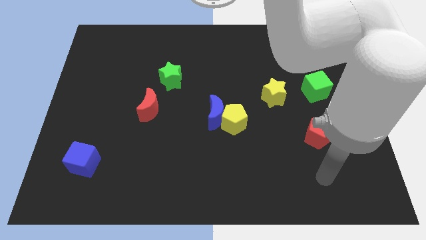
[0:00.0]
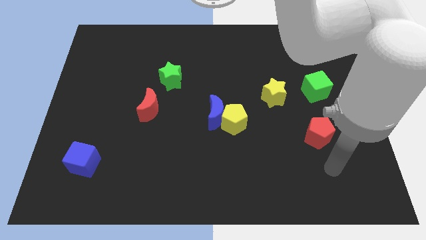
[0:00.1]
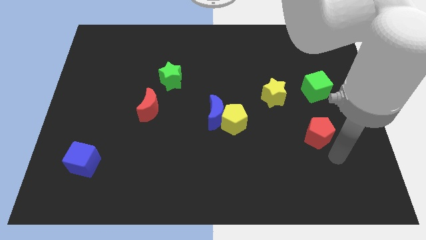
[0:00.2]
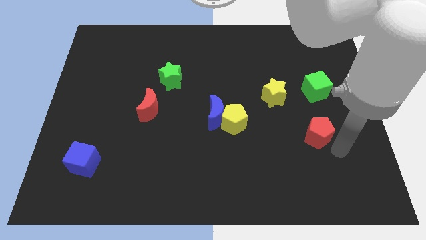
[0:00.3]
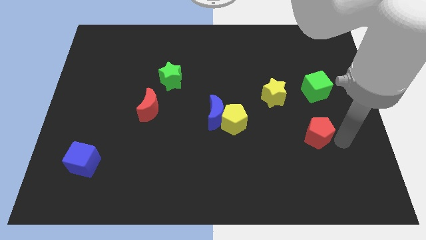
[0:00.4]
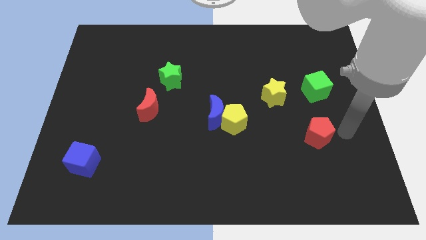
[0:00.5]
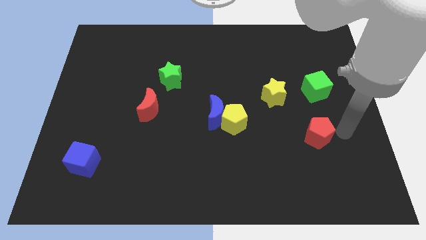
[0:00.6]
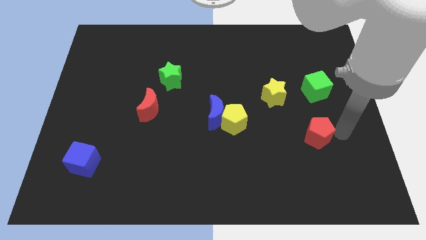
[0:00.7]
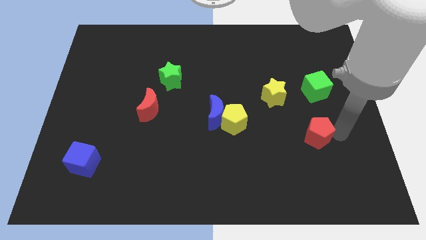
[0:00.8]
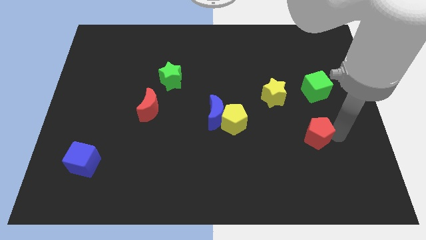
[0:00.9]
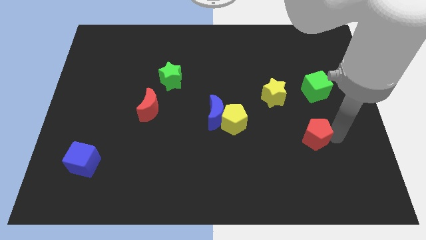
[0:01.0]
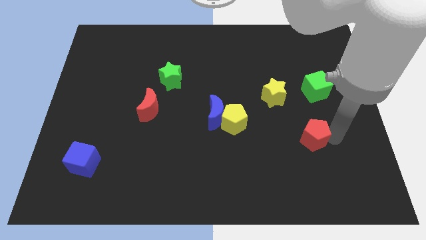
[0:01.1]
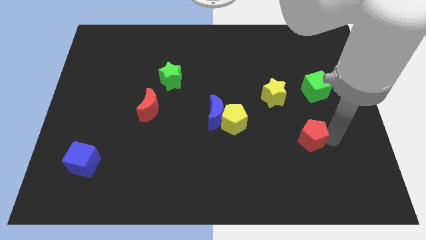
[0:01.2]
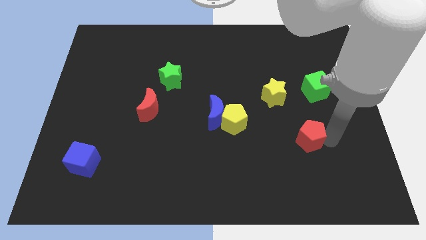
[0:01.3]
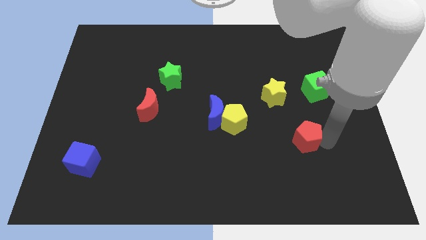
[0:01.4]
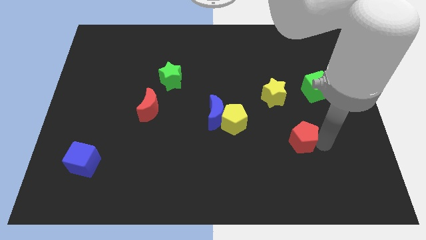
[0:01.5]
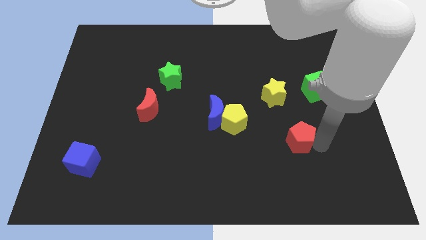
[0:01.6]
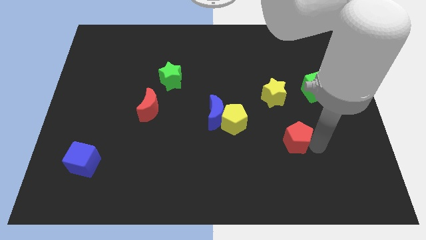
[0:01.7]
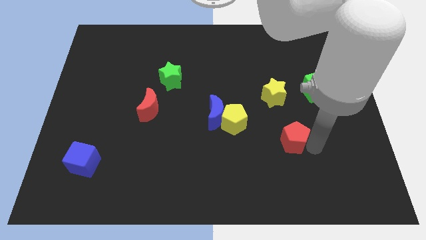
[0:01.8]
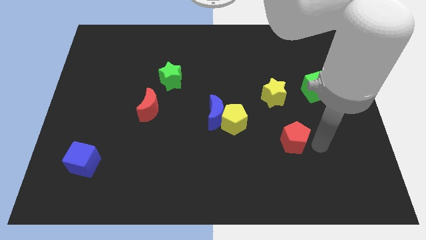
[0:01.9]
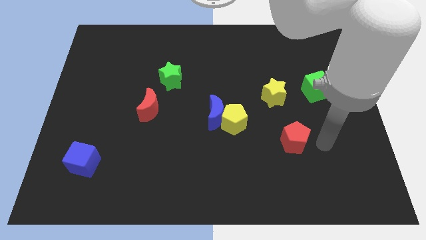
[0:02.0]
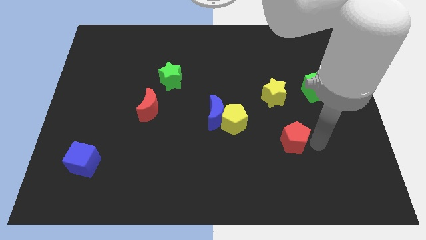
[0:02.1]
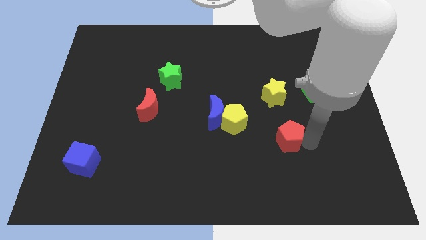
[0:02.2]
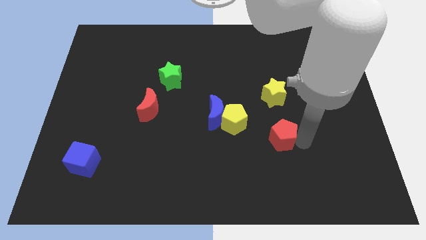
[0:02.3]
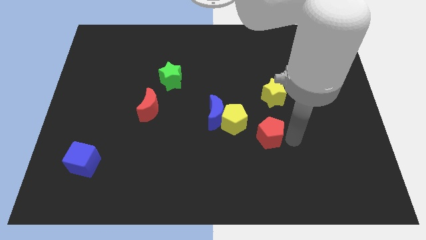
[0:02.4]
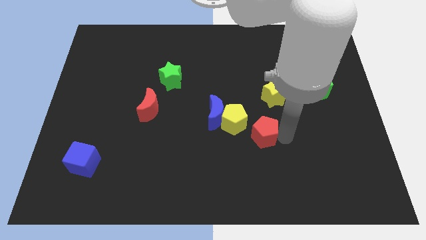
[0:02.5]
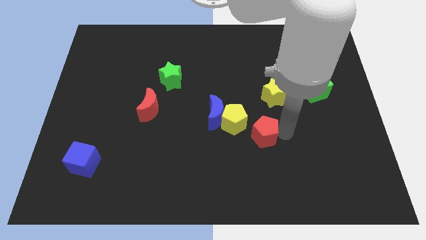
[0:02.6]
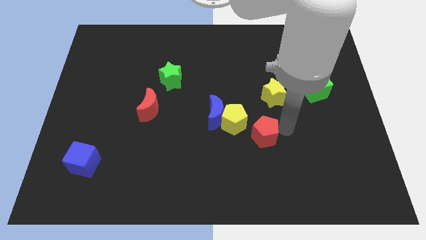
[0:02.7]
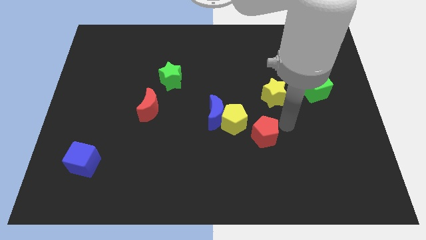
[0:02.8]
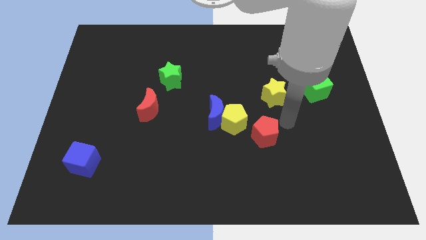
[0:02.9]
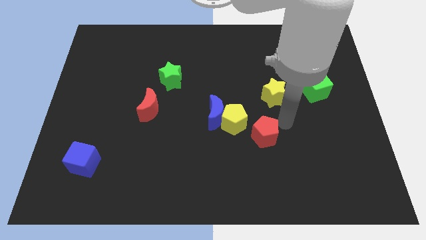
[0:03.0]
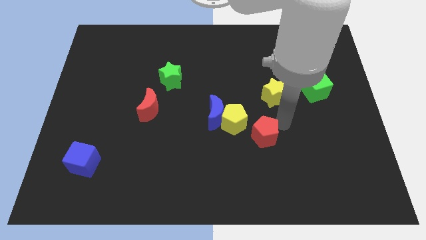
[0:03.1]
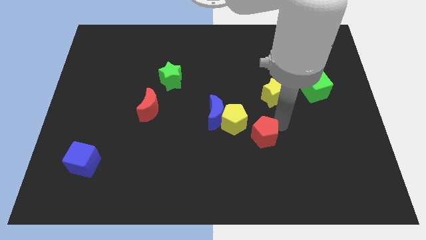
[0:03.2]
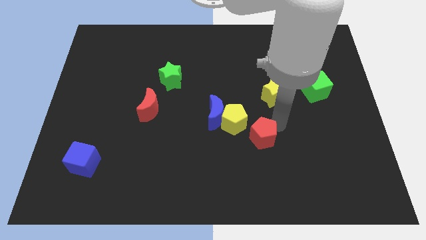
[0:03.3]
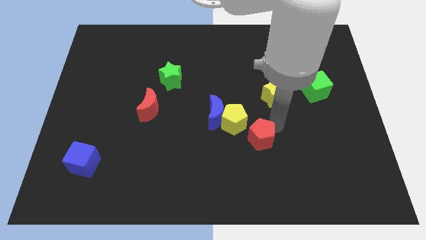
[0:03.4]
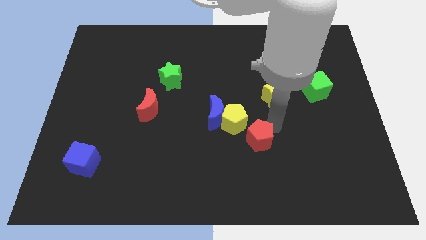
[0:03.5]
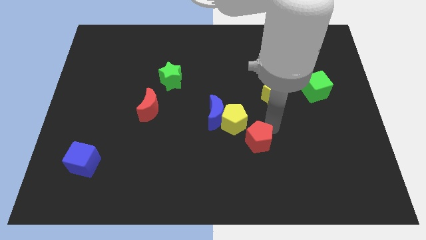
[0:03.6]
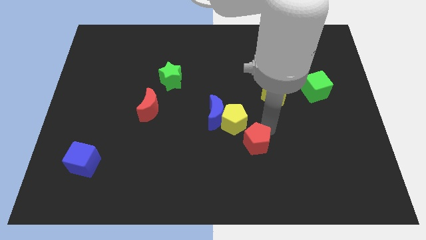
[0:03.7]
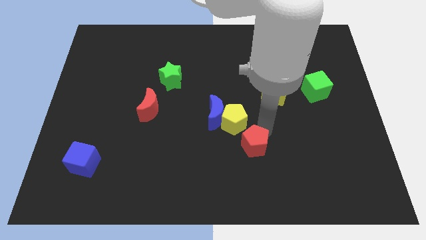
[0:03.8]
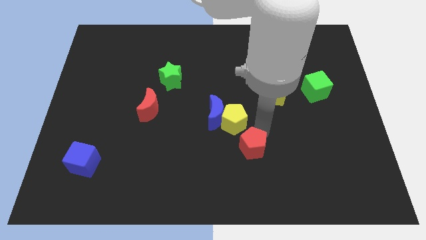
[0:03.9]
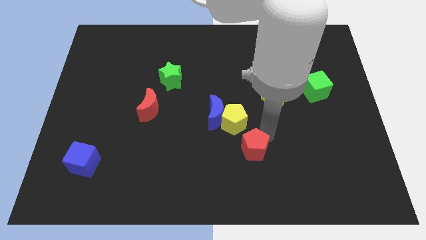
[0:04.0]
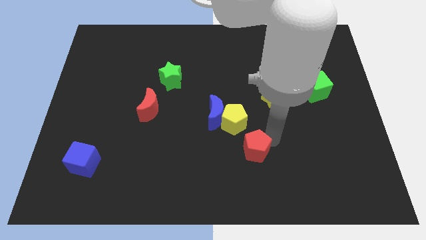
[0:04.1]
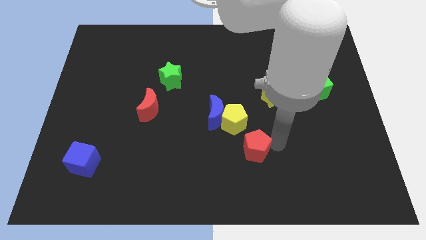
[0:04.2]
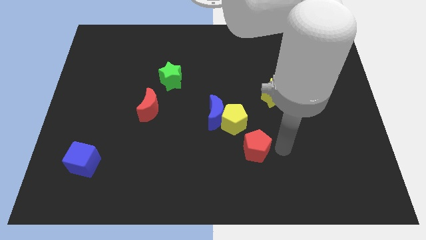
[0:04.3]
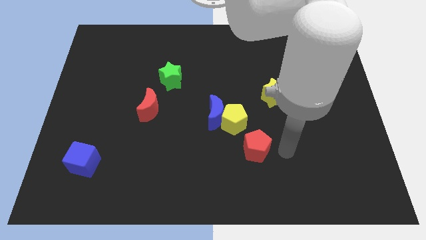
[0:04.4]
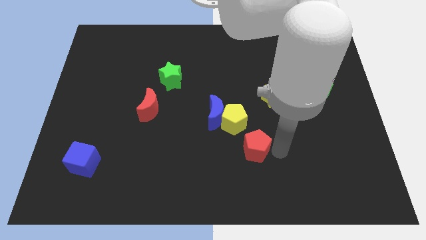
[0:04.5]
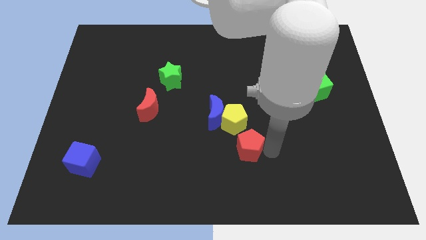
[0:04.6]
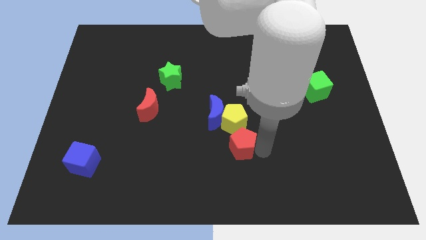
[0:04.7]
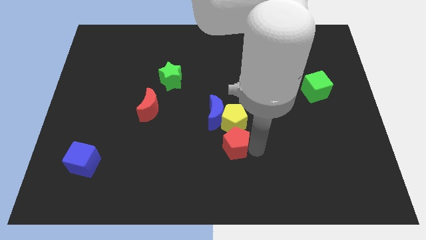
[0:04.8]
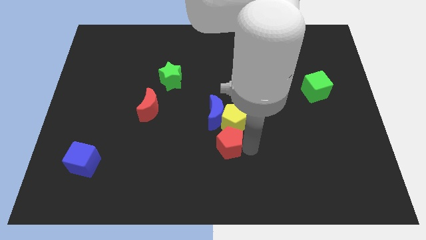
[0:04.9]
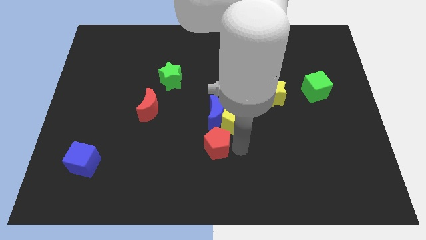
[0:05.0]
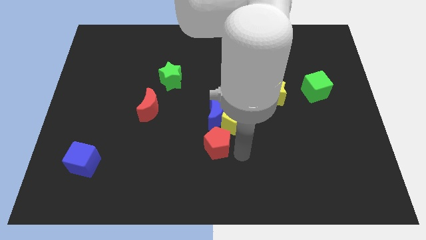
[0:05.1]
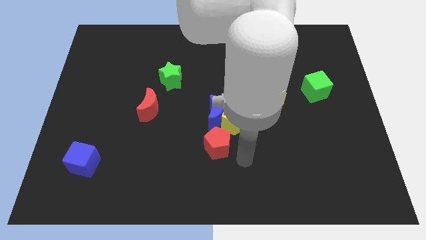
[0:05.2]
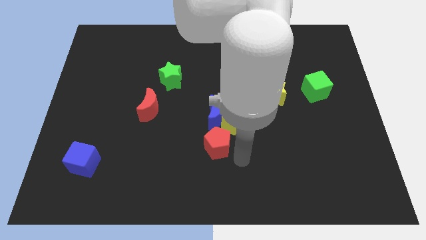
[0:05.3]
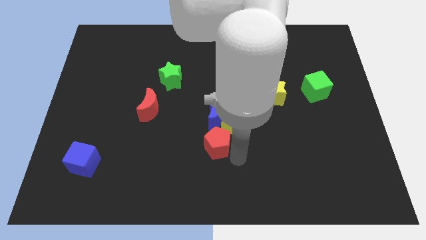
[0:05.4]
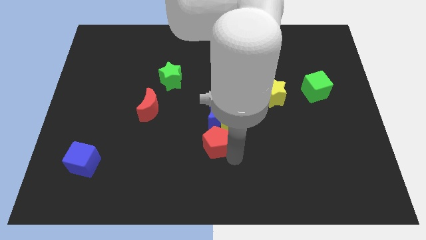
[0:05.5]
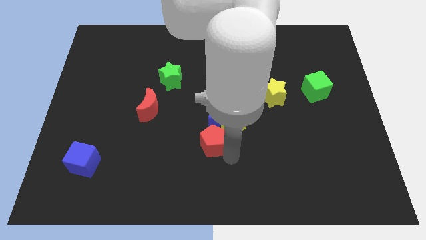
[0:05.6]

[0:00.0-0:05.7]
put the red pentagon diagonally down and to the left of the blue moon

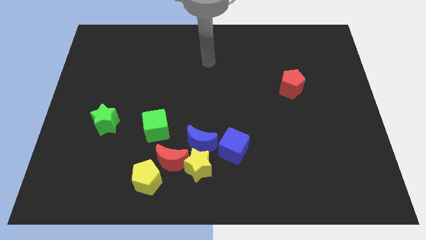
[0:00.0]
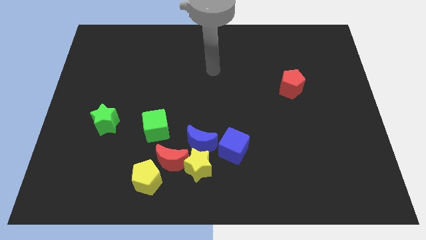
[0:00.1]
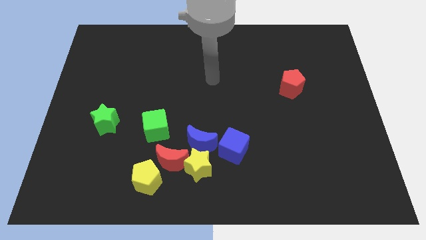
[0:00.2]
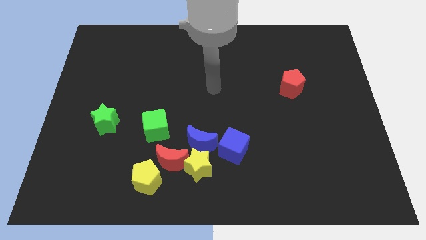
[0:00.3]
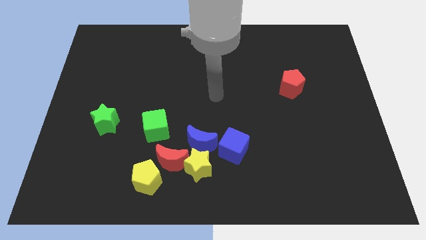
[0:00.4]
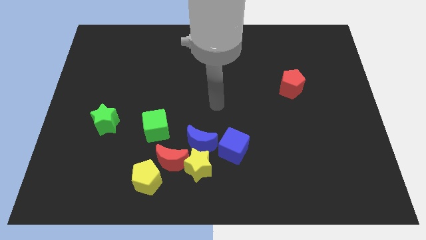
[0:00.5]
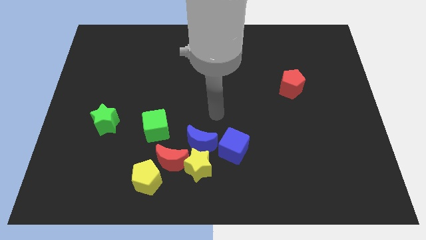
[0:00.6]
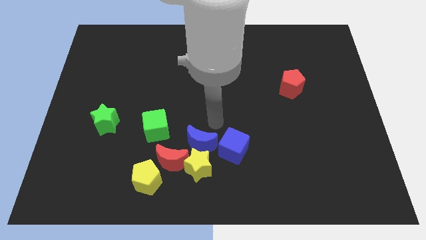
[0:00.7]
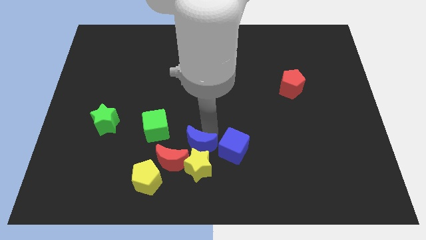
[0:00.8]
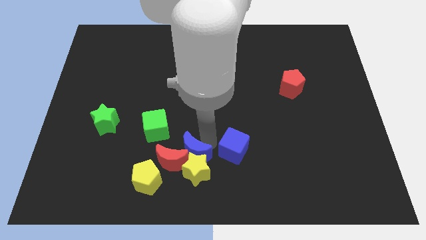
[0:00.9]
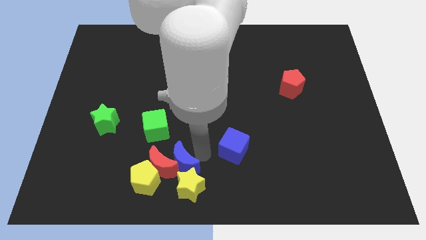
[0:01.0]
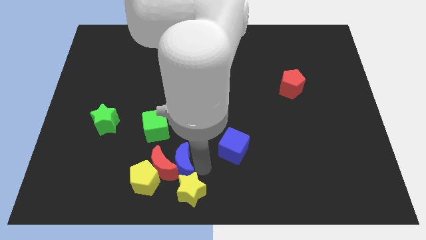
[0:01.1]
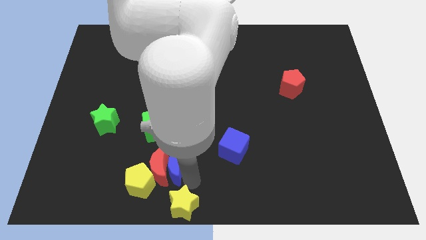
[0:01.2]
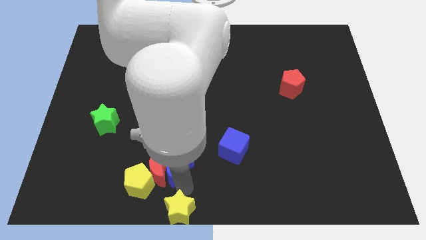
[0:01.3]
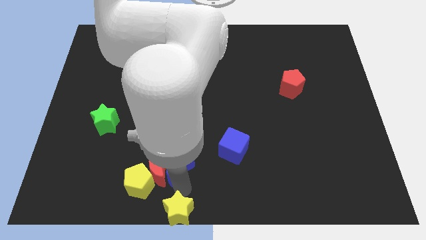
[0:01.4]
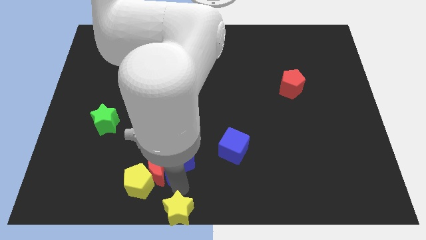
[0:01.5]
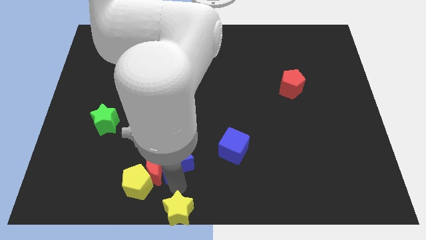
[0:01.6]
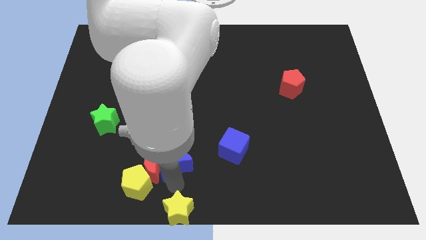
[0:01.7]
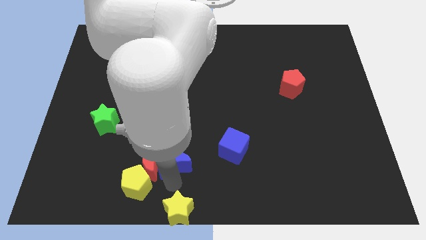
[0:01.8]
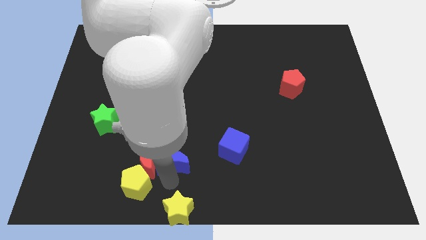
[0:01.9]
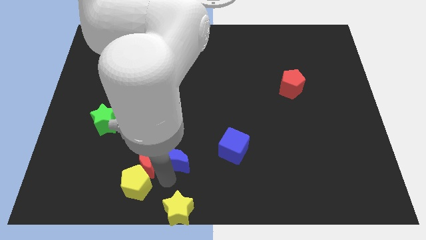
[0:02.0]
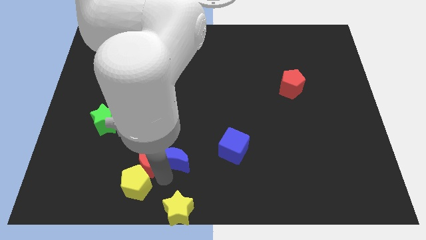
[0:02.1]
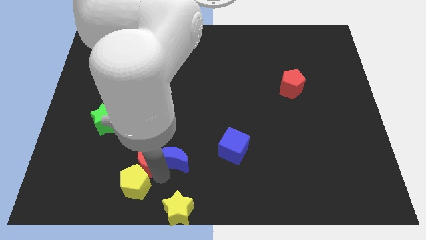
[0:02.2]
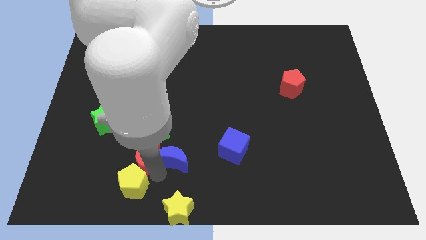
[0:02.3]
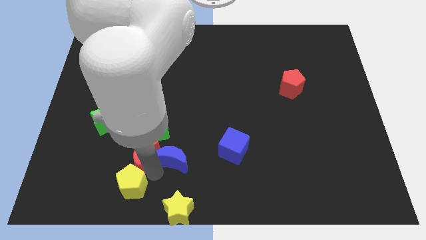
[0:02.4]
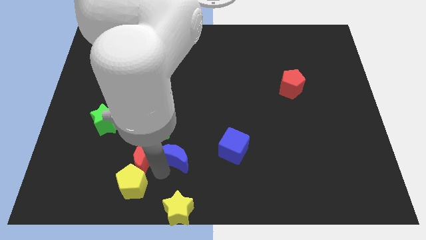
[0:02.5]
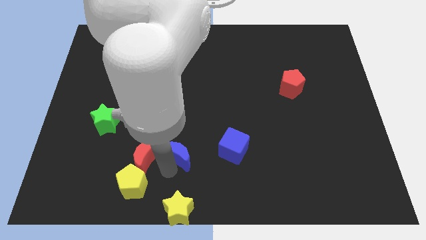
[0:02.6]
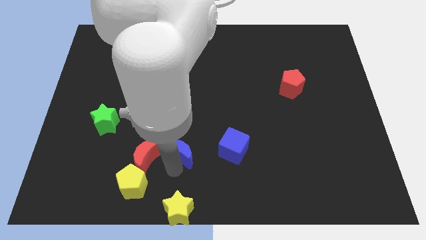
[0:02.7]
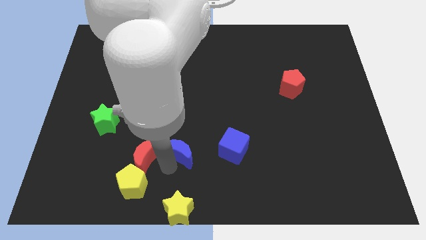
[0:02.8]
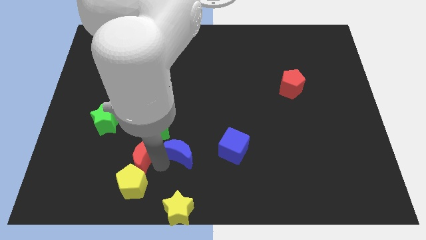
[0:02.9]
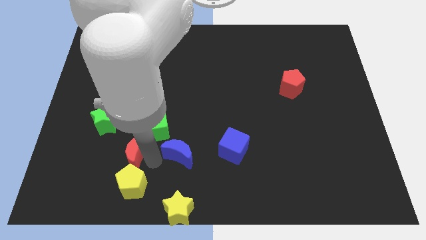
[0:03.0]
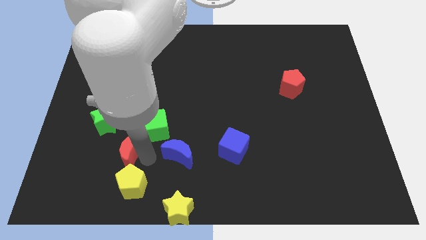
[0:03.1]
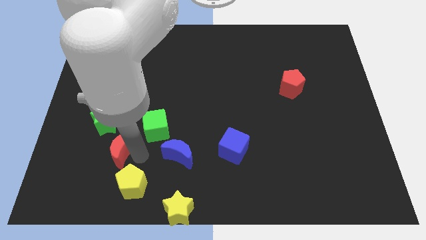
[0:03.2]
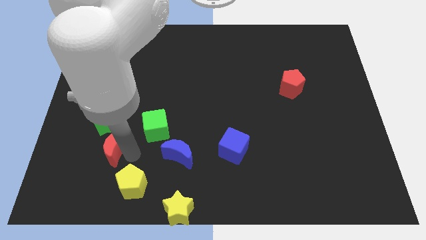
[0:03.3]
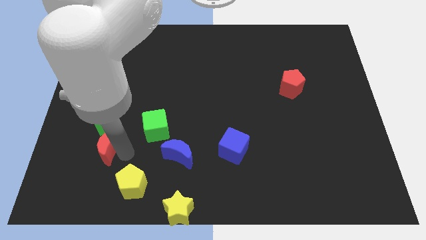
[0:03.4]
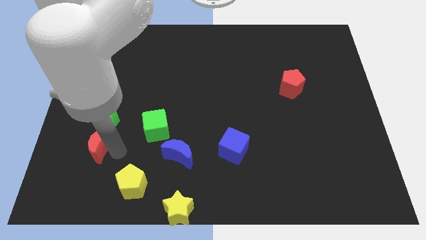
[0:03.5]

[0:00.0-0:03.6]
move the red moon left of the green cube
